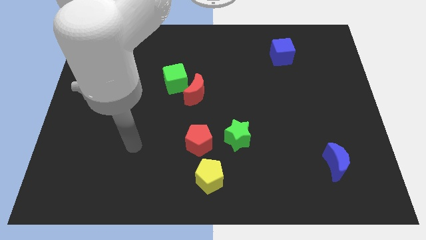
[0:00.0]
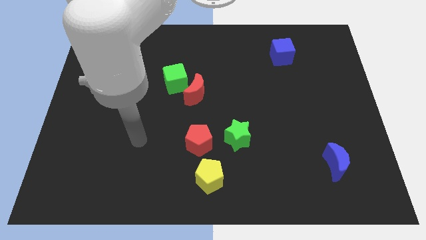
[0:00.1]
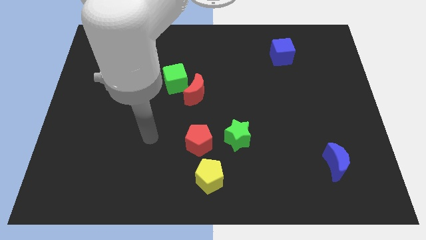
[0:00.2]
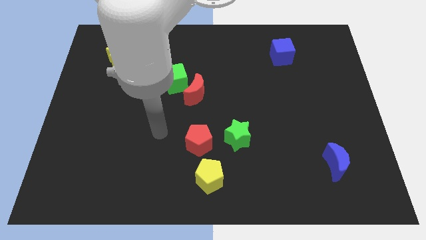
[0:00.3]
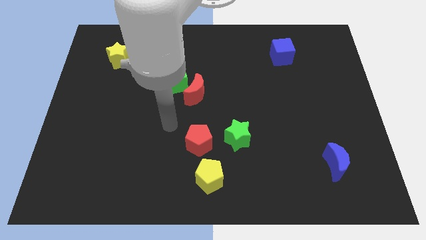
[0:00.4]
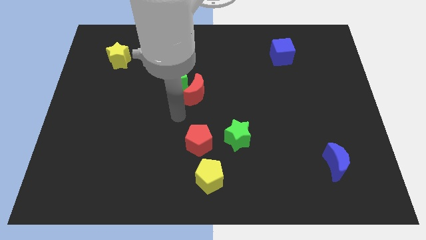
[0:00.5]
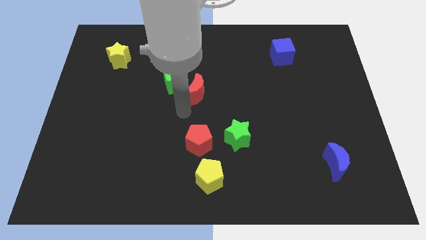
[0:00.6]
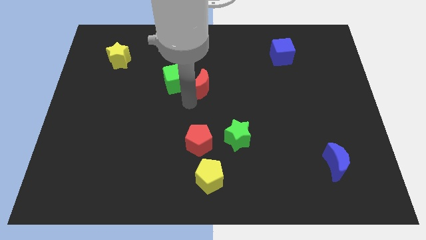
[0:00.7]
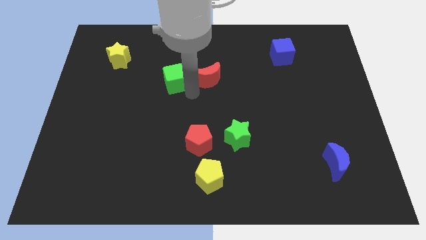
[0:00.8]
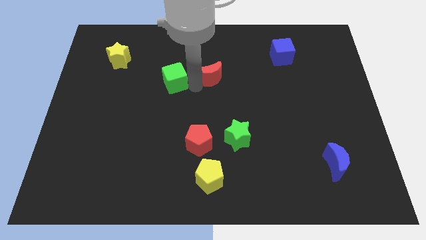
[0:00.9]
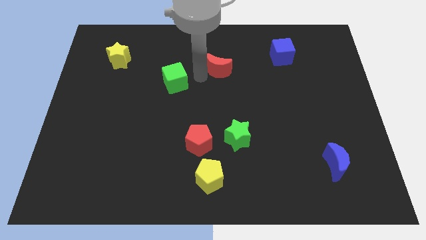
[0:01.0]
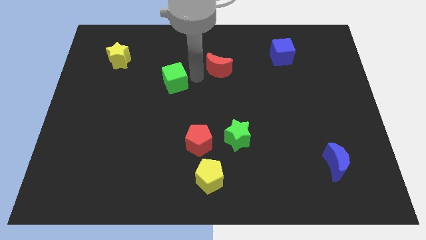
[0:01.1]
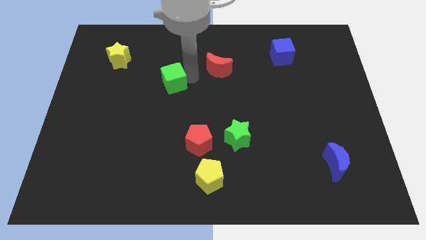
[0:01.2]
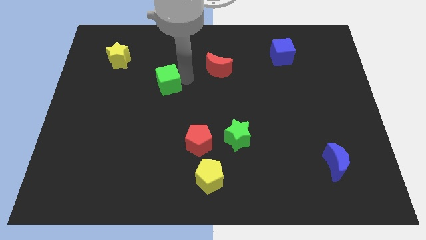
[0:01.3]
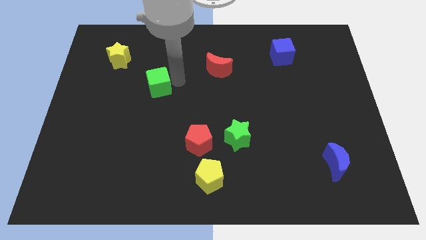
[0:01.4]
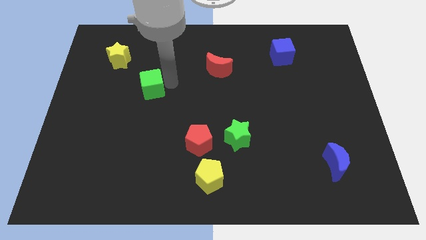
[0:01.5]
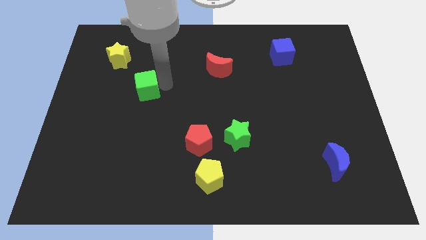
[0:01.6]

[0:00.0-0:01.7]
slide the green cube left a little bit

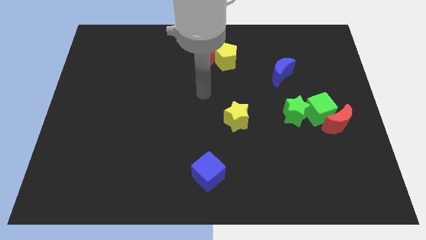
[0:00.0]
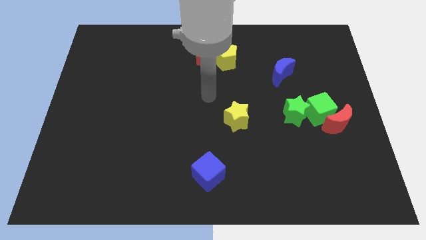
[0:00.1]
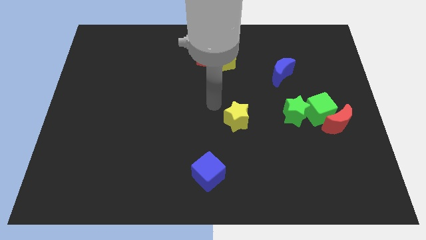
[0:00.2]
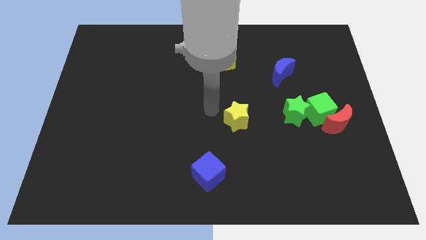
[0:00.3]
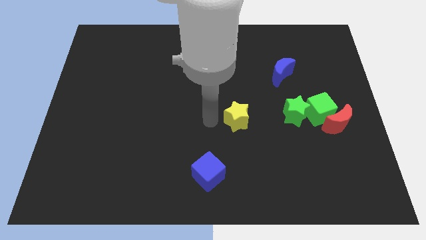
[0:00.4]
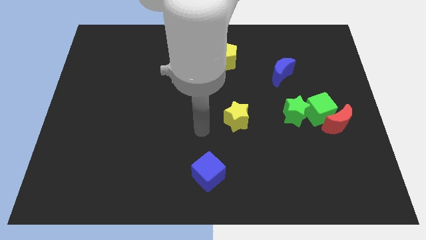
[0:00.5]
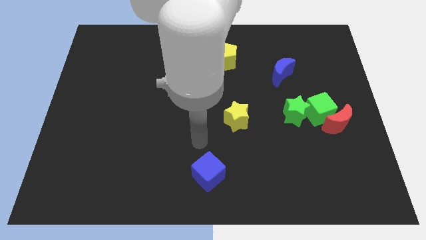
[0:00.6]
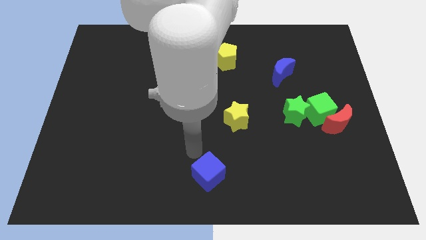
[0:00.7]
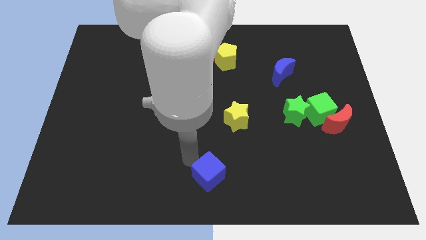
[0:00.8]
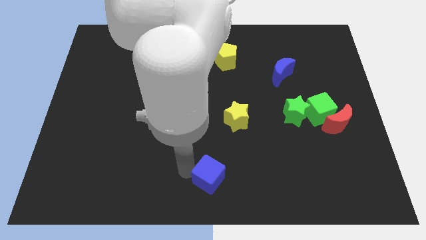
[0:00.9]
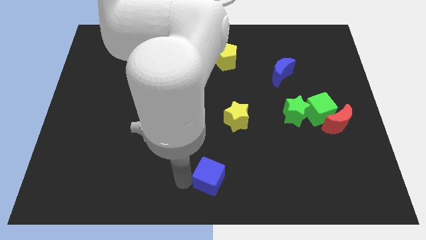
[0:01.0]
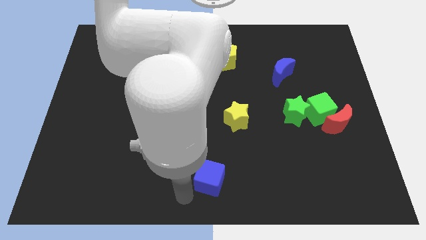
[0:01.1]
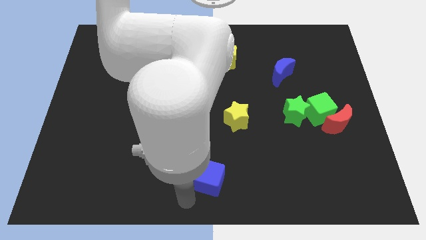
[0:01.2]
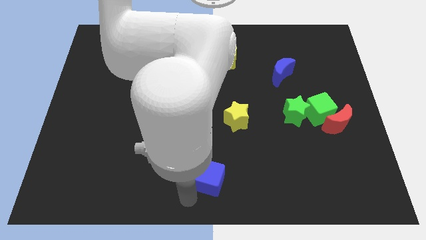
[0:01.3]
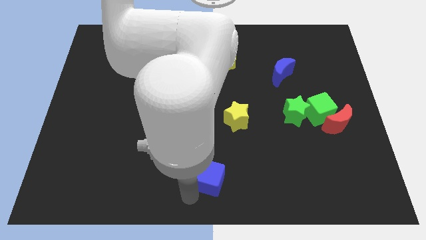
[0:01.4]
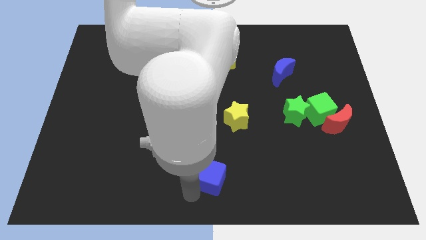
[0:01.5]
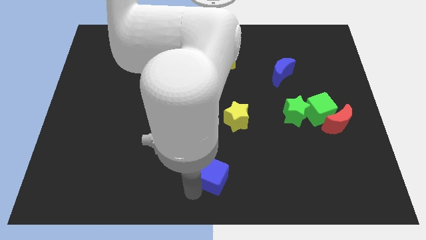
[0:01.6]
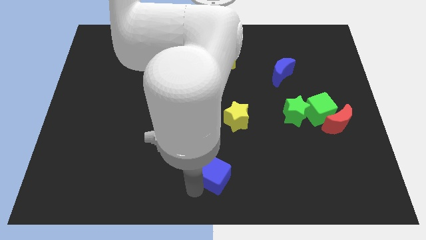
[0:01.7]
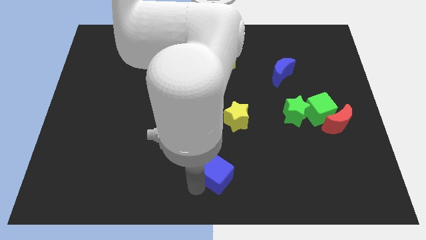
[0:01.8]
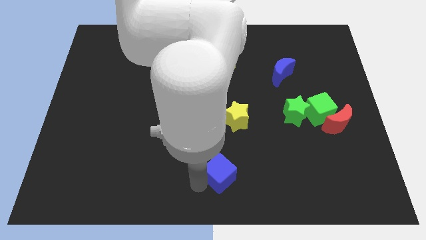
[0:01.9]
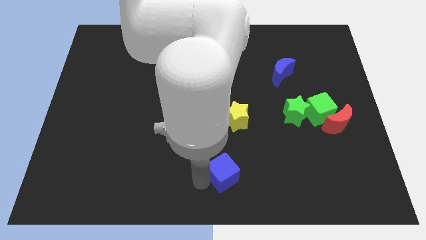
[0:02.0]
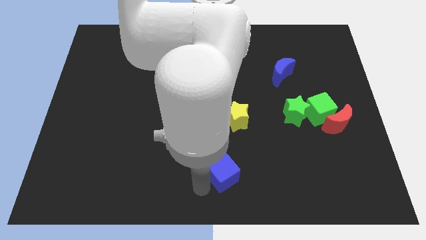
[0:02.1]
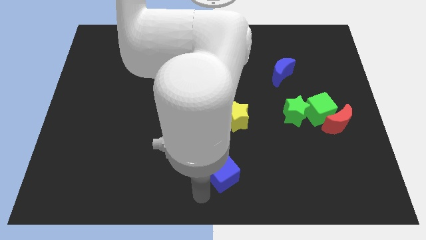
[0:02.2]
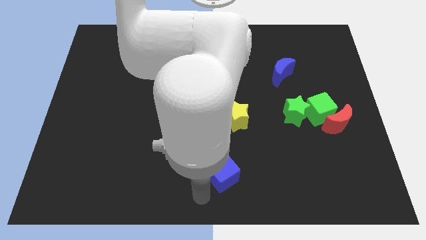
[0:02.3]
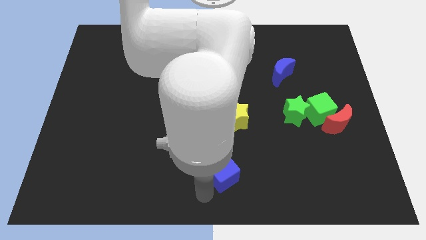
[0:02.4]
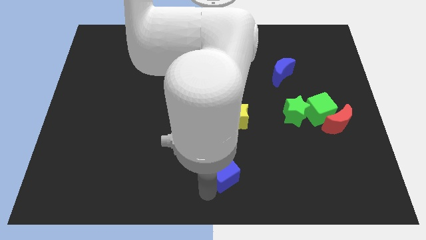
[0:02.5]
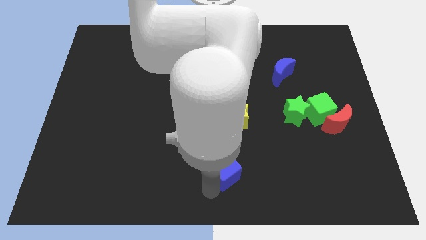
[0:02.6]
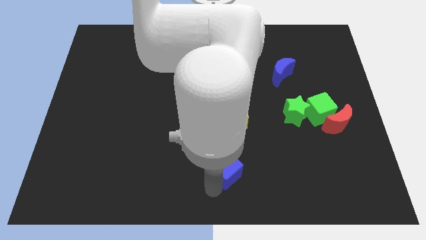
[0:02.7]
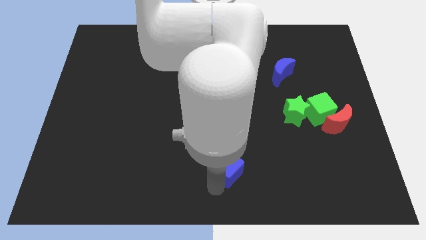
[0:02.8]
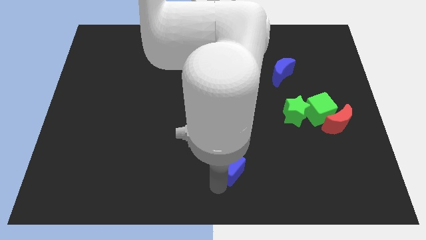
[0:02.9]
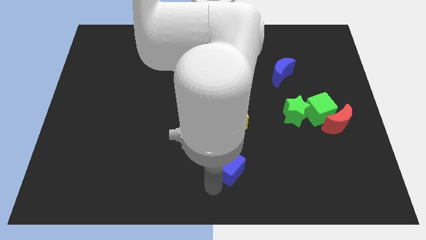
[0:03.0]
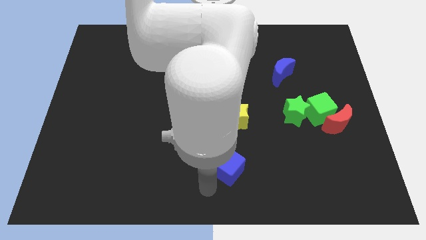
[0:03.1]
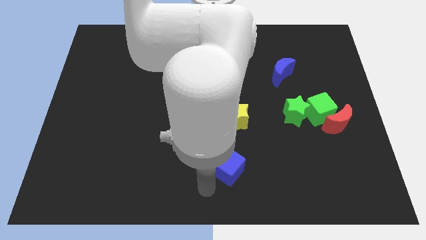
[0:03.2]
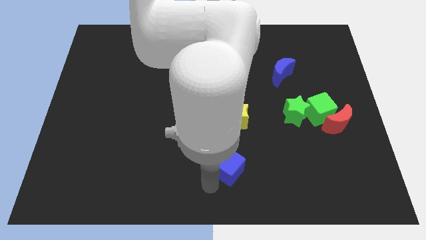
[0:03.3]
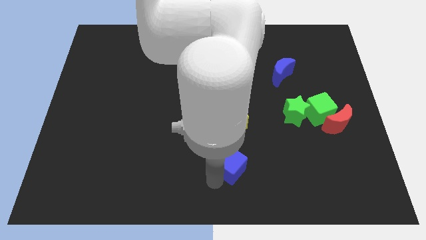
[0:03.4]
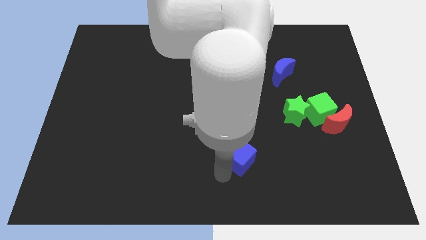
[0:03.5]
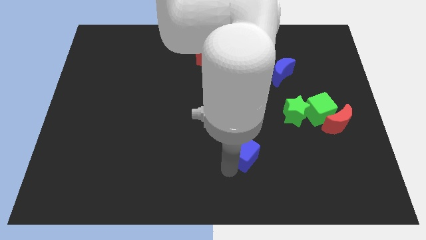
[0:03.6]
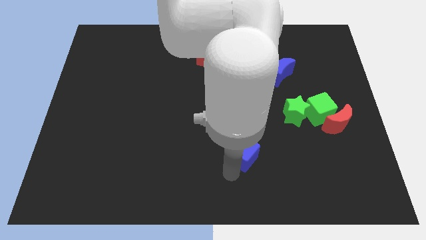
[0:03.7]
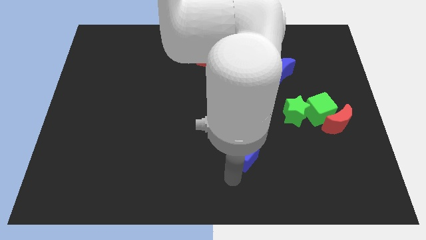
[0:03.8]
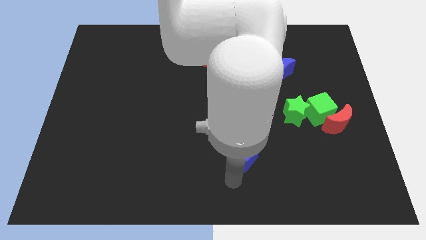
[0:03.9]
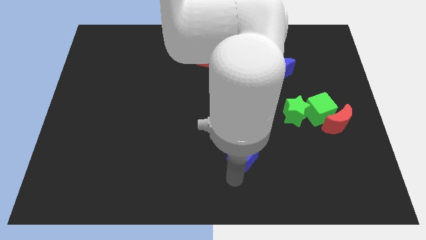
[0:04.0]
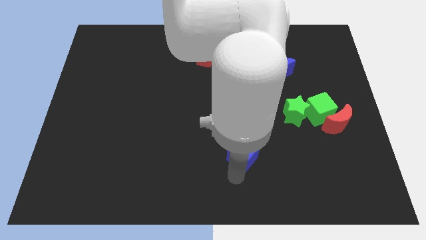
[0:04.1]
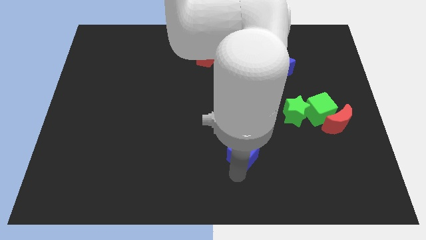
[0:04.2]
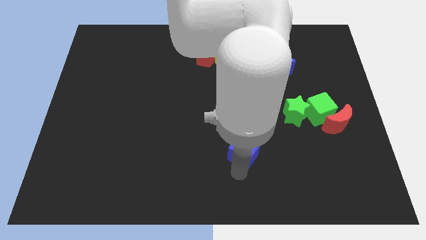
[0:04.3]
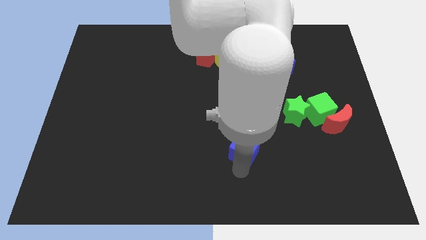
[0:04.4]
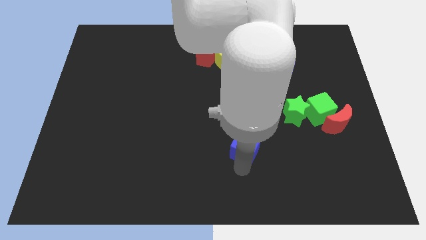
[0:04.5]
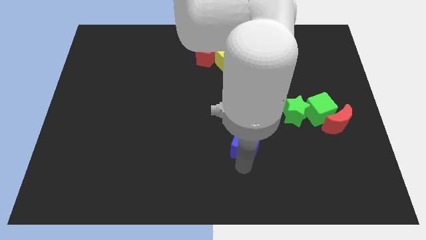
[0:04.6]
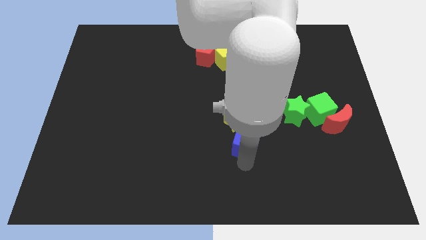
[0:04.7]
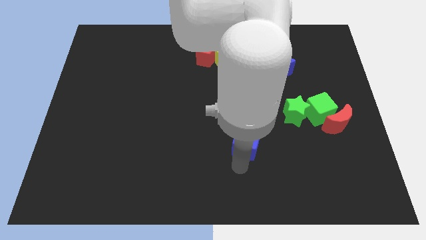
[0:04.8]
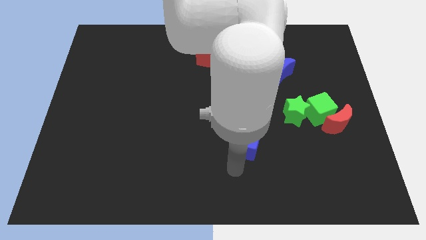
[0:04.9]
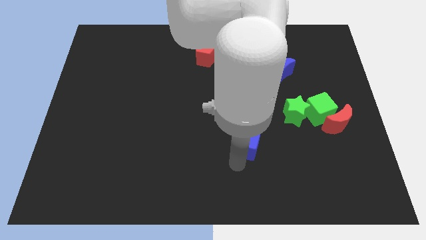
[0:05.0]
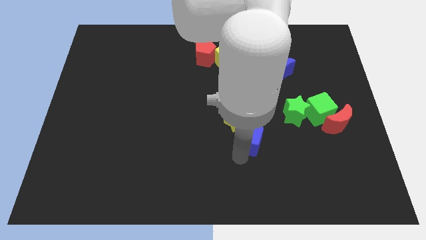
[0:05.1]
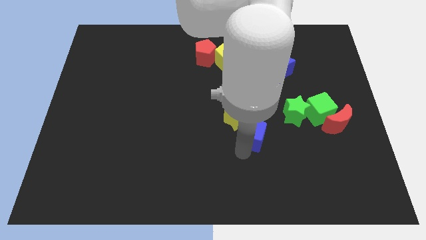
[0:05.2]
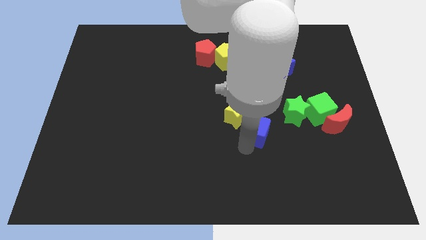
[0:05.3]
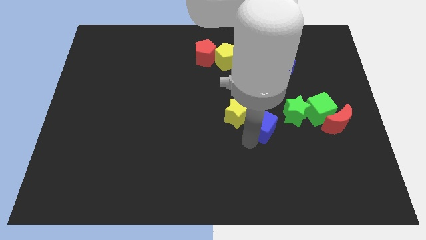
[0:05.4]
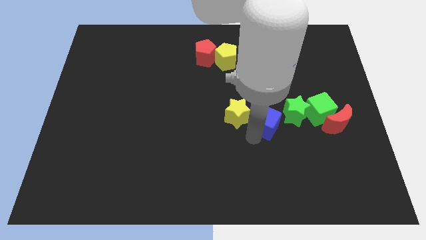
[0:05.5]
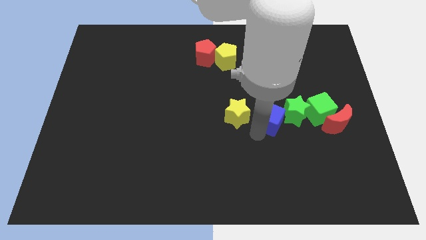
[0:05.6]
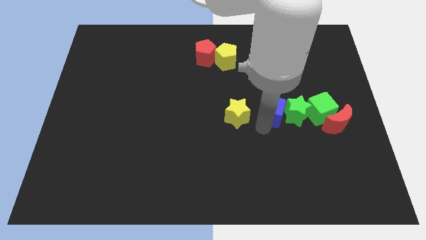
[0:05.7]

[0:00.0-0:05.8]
move the blue cube upwards and then to the right

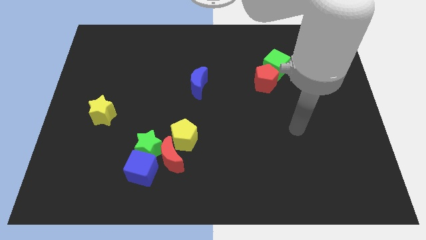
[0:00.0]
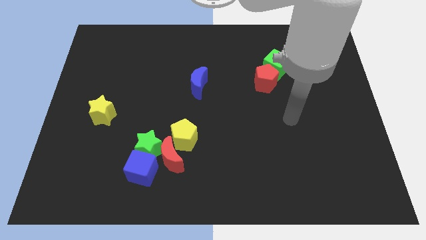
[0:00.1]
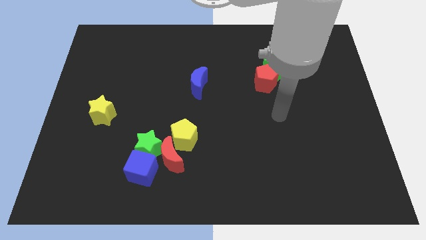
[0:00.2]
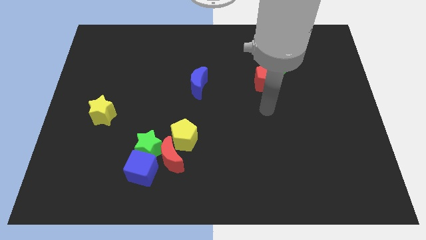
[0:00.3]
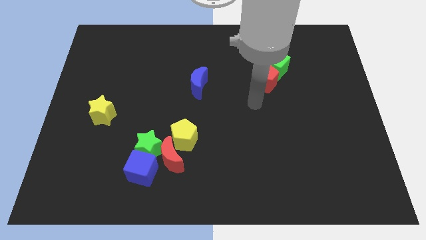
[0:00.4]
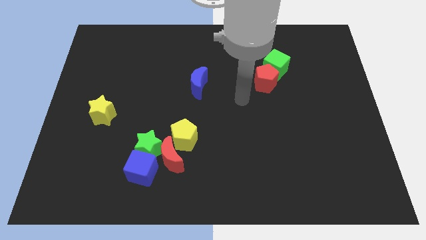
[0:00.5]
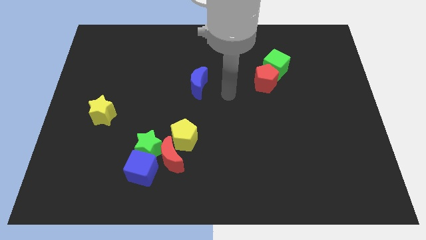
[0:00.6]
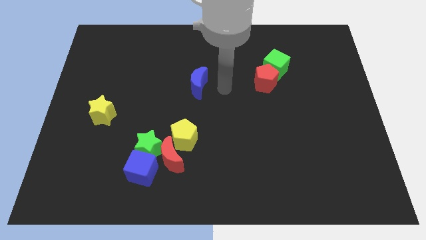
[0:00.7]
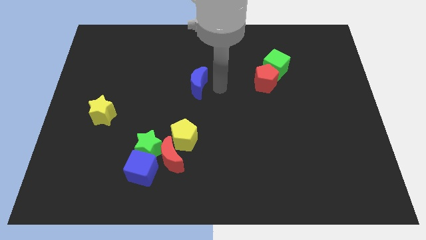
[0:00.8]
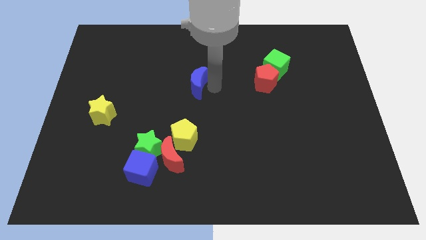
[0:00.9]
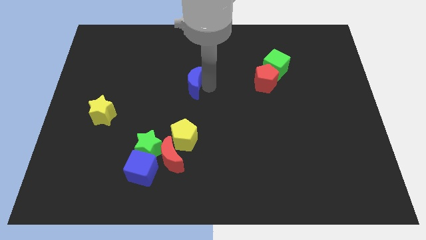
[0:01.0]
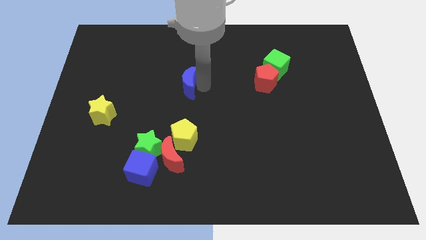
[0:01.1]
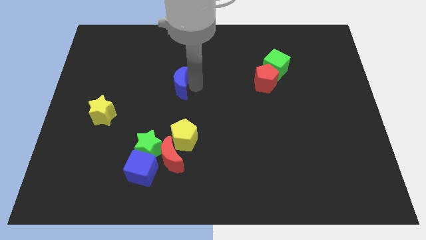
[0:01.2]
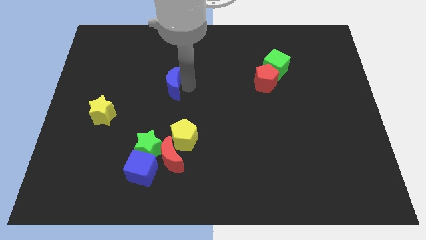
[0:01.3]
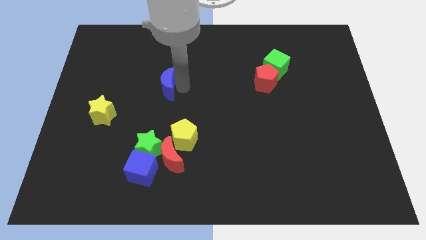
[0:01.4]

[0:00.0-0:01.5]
push the blue moon a little to the left
